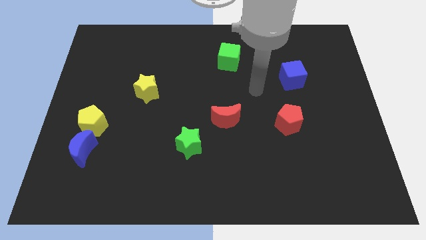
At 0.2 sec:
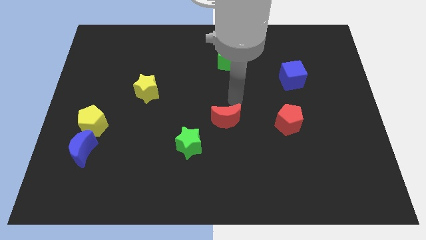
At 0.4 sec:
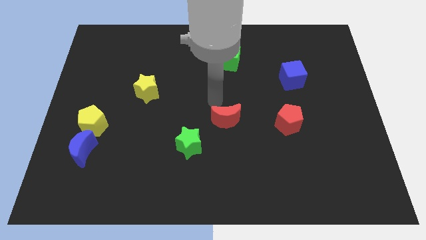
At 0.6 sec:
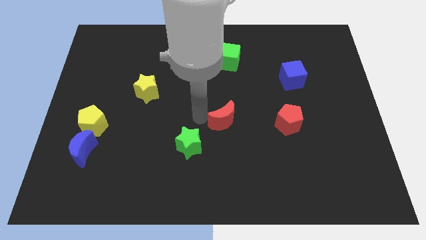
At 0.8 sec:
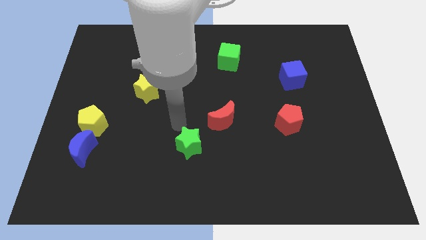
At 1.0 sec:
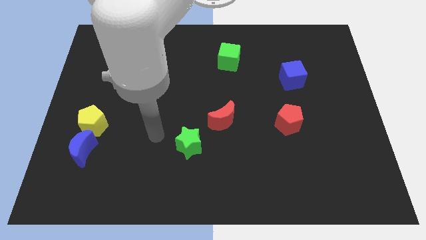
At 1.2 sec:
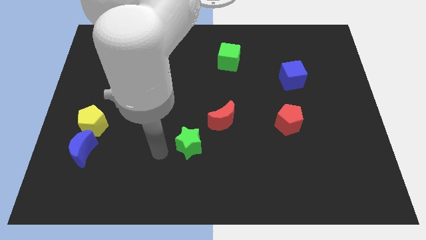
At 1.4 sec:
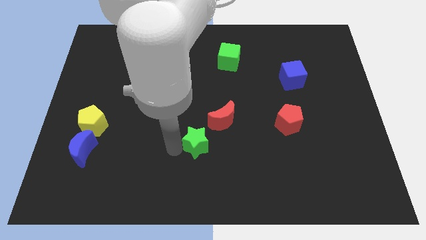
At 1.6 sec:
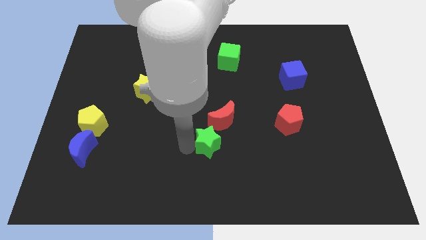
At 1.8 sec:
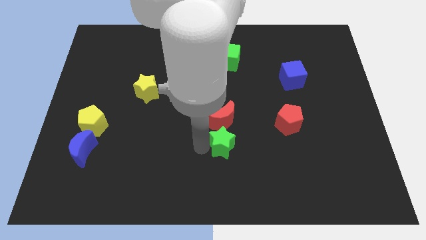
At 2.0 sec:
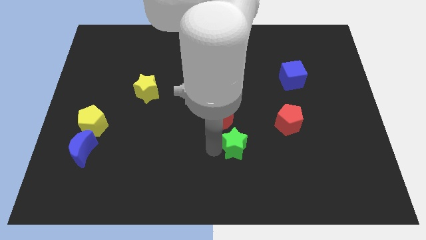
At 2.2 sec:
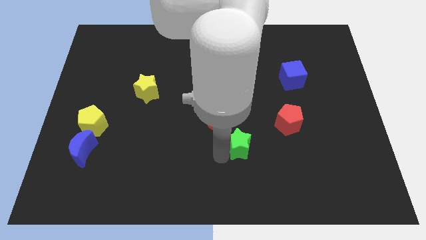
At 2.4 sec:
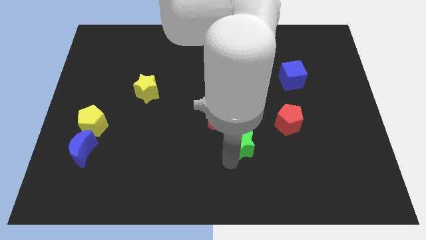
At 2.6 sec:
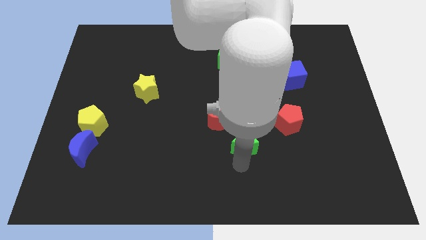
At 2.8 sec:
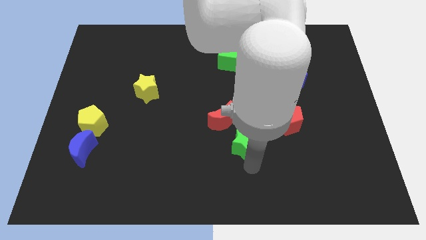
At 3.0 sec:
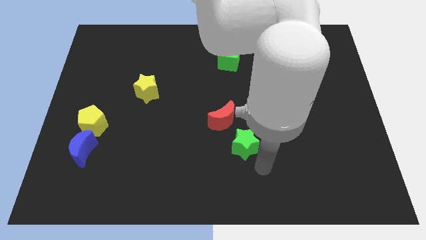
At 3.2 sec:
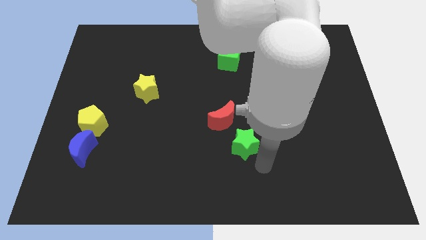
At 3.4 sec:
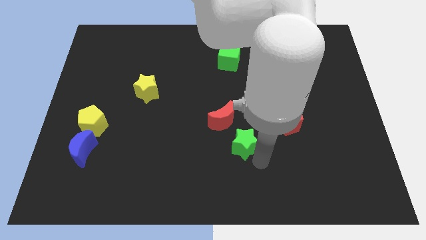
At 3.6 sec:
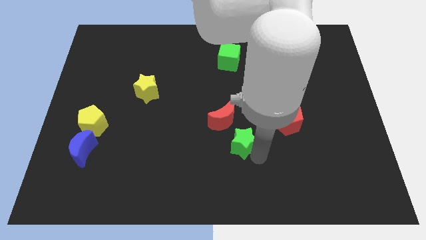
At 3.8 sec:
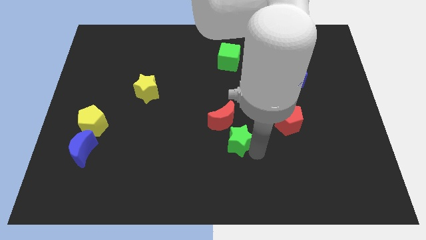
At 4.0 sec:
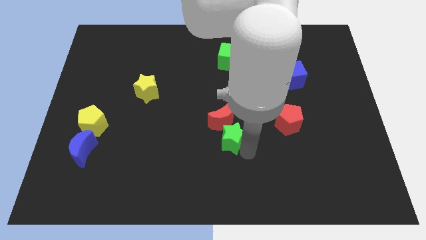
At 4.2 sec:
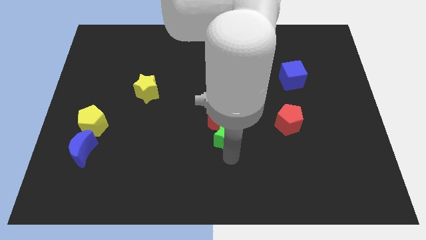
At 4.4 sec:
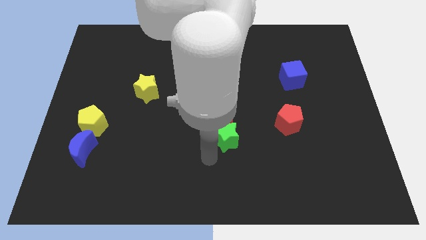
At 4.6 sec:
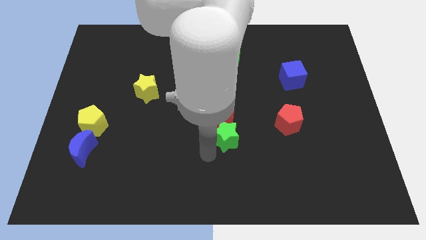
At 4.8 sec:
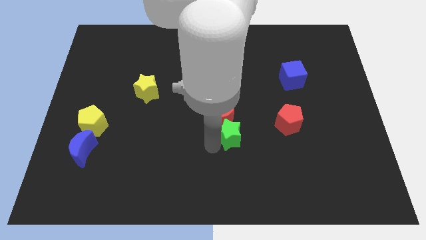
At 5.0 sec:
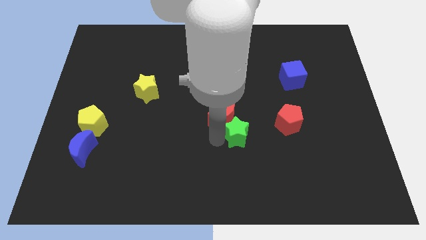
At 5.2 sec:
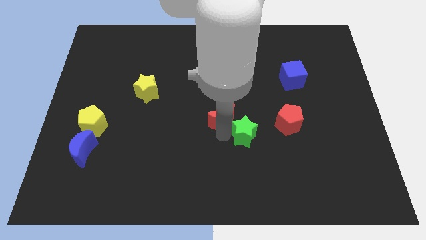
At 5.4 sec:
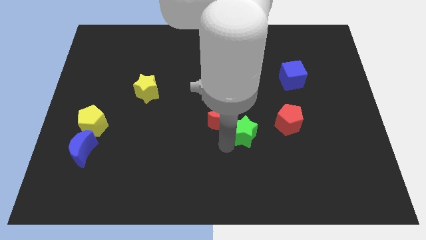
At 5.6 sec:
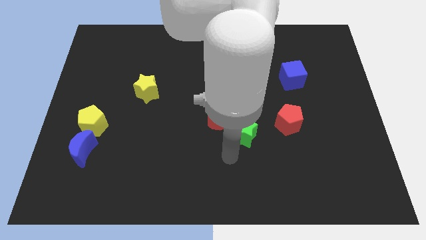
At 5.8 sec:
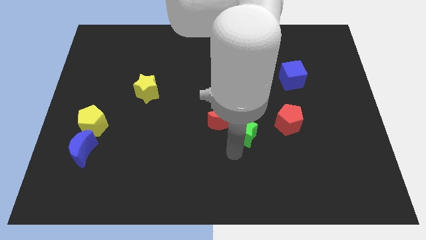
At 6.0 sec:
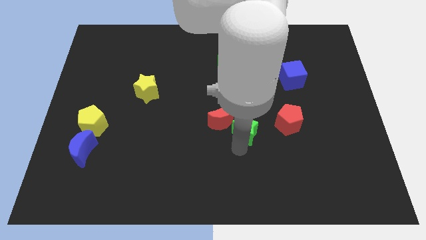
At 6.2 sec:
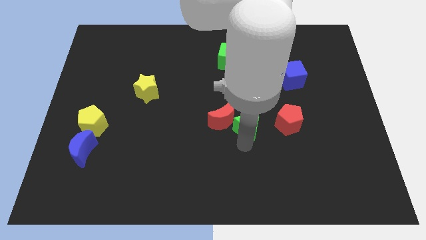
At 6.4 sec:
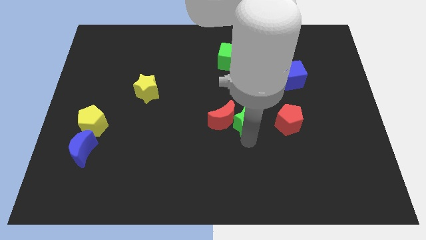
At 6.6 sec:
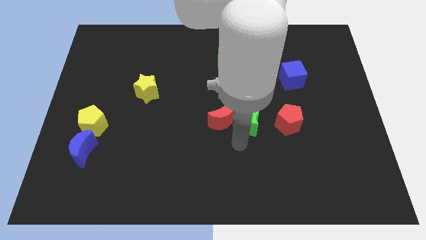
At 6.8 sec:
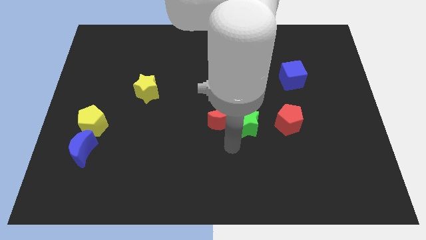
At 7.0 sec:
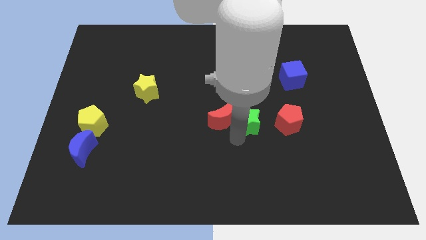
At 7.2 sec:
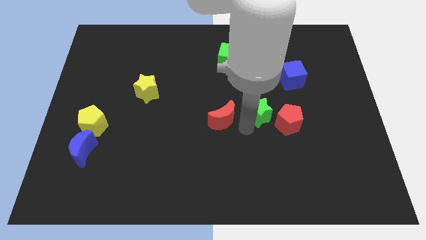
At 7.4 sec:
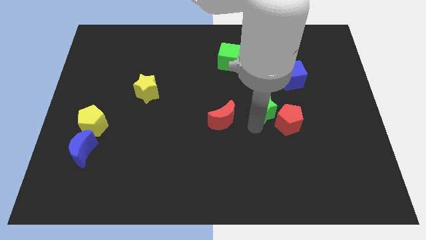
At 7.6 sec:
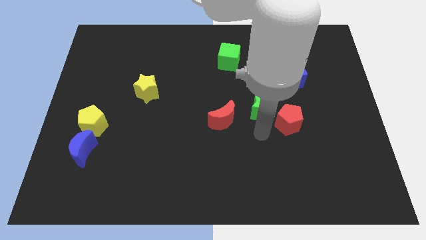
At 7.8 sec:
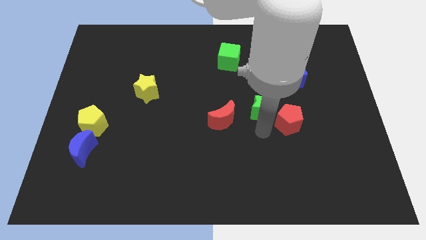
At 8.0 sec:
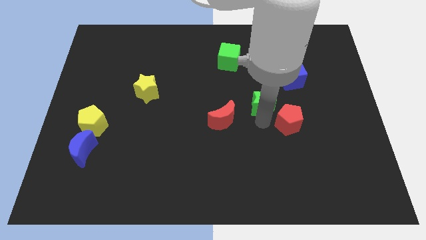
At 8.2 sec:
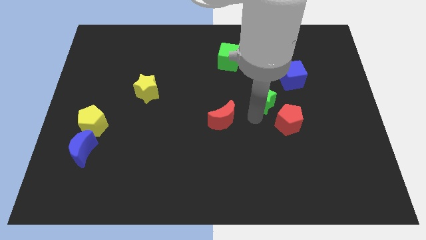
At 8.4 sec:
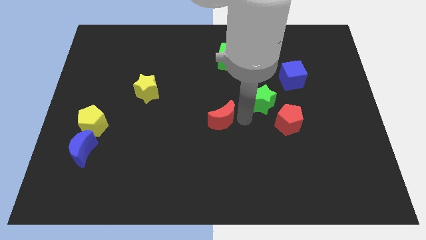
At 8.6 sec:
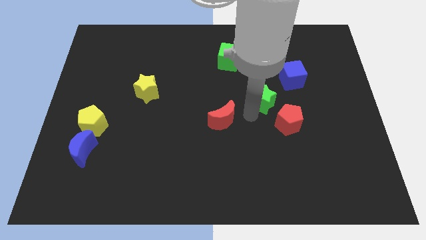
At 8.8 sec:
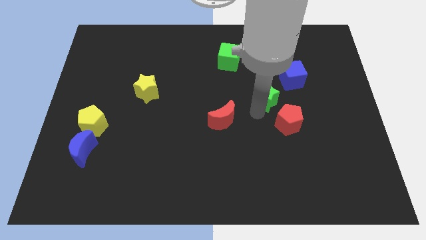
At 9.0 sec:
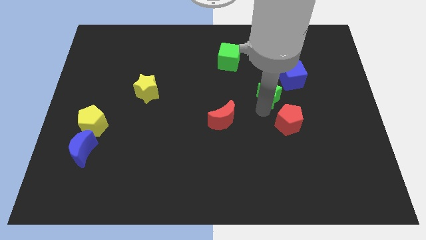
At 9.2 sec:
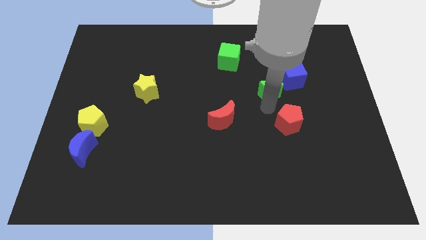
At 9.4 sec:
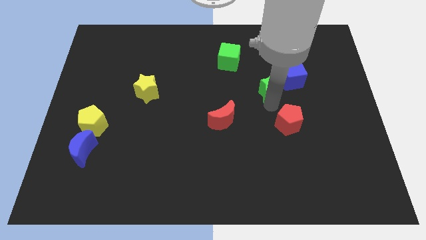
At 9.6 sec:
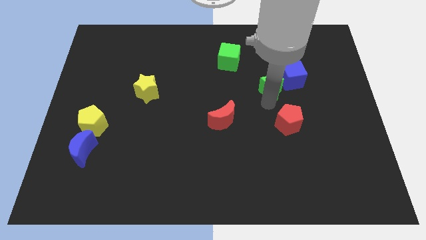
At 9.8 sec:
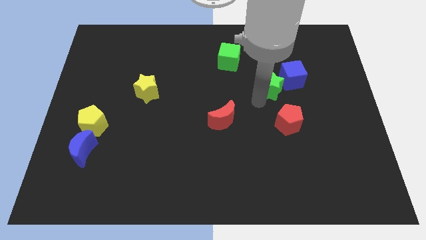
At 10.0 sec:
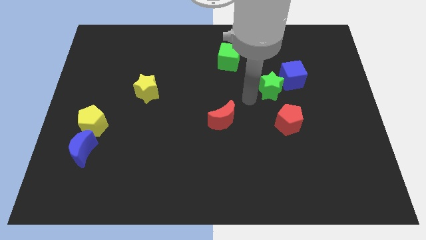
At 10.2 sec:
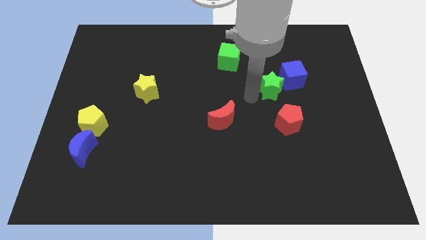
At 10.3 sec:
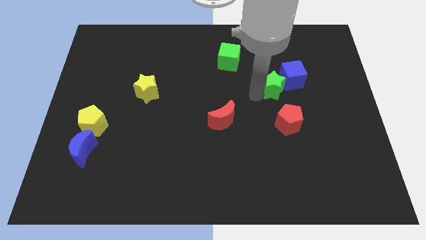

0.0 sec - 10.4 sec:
push the green star towards the blue cube

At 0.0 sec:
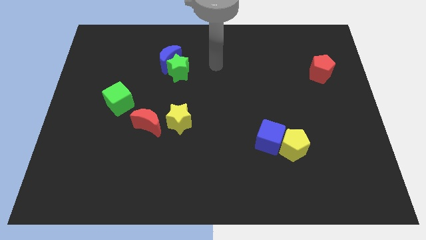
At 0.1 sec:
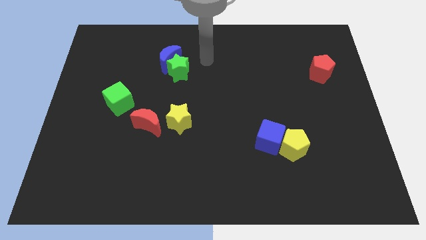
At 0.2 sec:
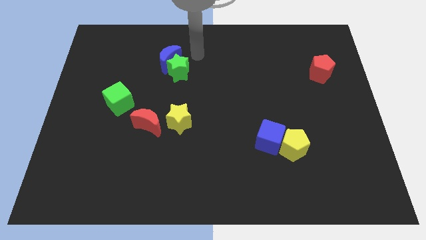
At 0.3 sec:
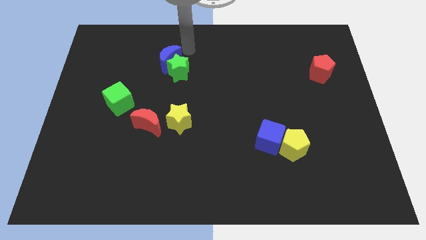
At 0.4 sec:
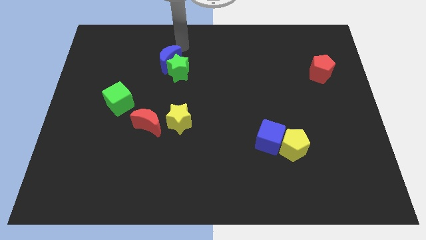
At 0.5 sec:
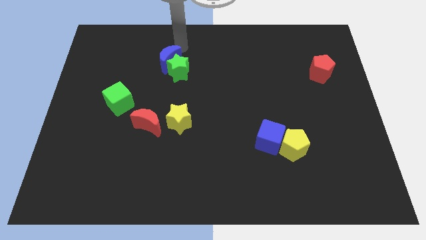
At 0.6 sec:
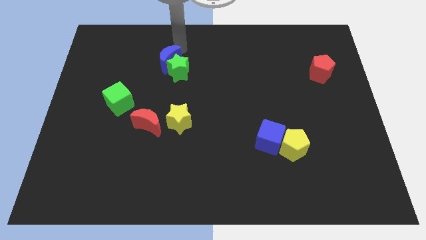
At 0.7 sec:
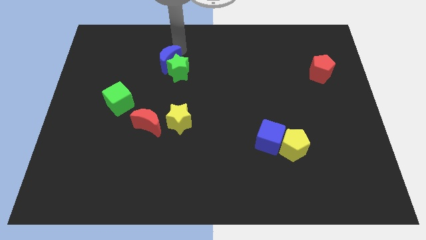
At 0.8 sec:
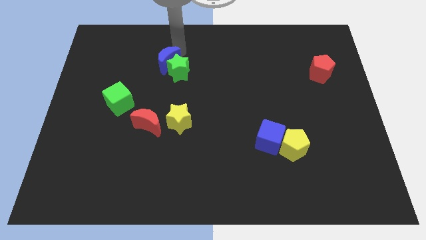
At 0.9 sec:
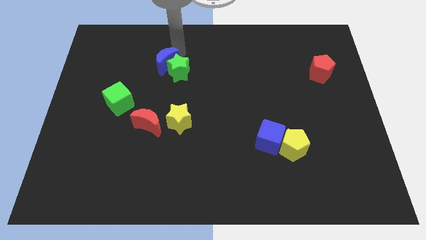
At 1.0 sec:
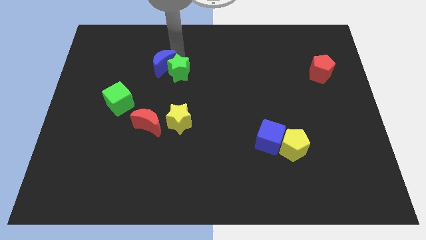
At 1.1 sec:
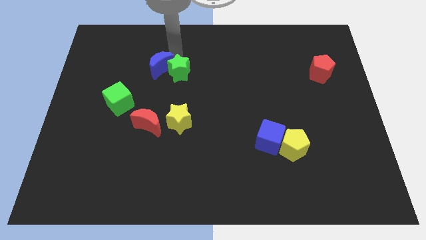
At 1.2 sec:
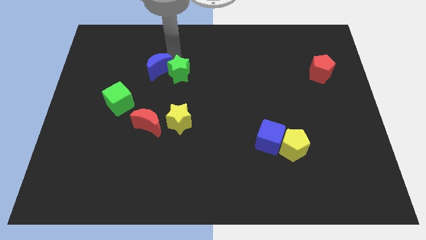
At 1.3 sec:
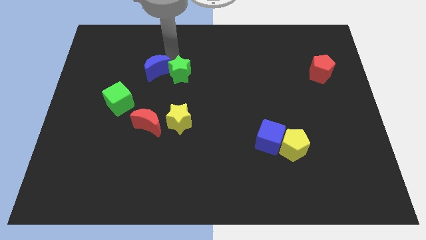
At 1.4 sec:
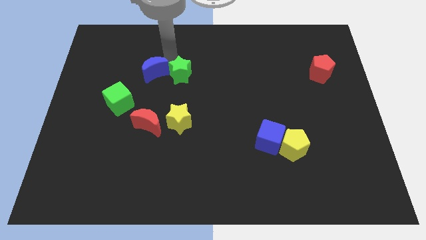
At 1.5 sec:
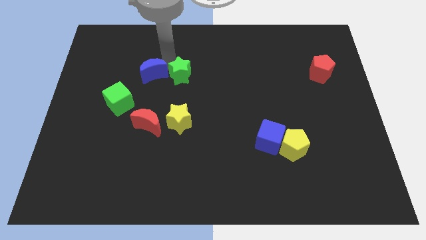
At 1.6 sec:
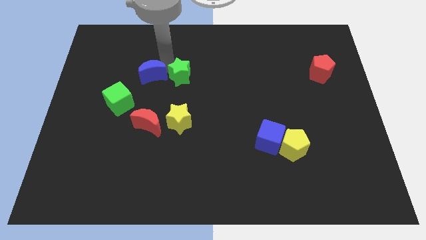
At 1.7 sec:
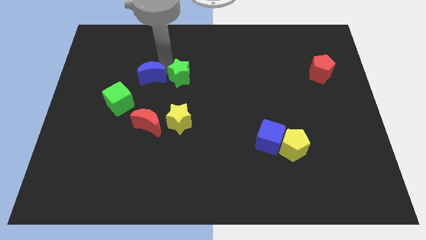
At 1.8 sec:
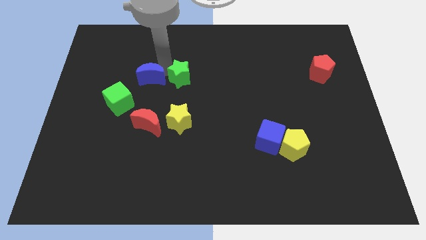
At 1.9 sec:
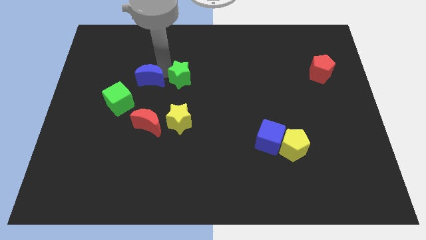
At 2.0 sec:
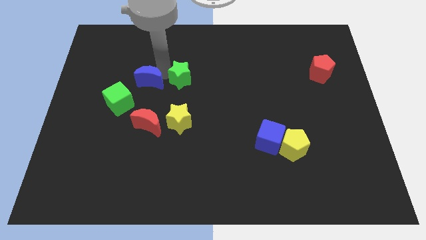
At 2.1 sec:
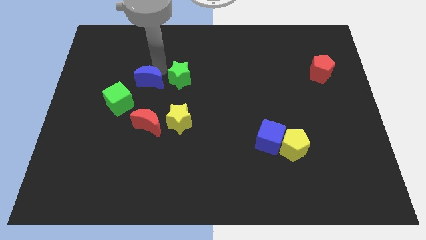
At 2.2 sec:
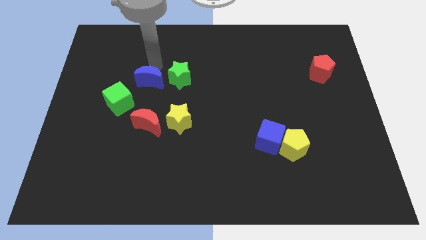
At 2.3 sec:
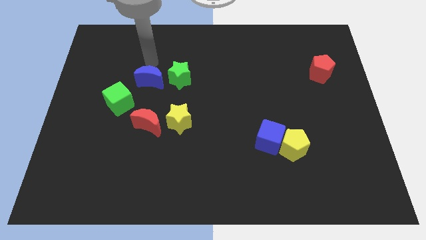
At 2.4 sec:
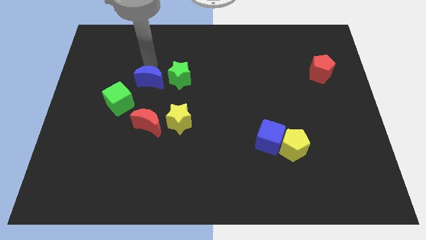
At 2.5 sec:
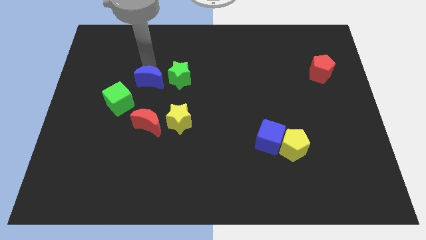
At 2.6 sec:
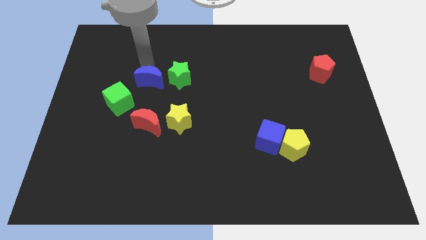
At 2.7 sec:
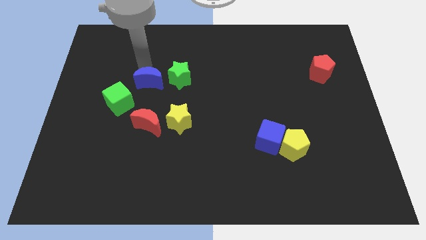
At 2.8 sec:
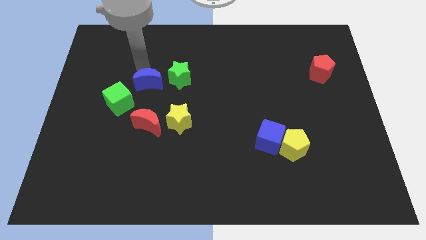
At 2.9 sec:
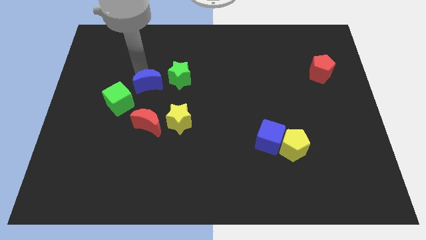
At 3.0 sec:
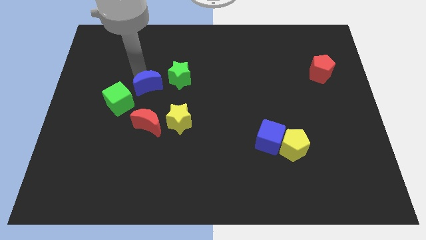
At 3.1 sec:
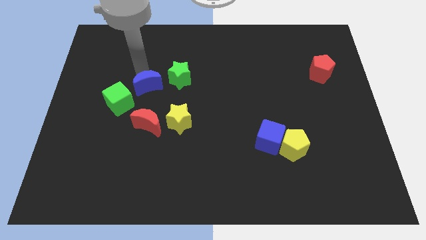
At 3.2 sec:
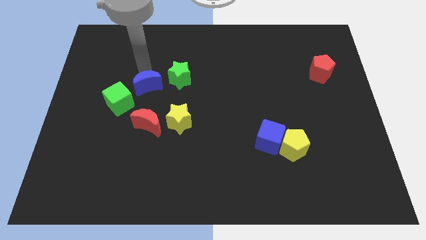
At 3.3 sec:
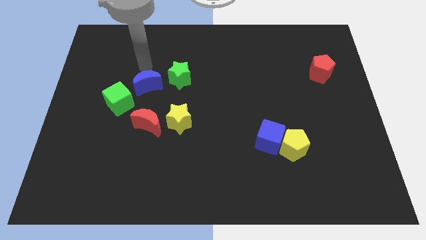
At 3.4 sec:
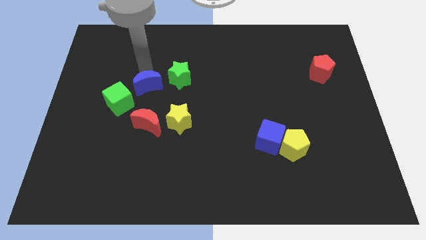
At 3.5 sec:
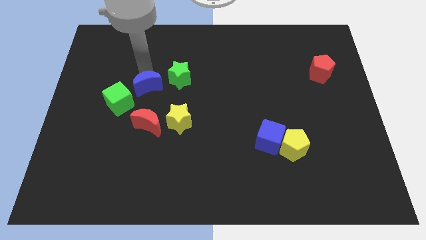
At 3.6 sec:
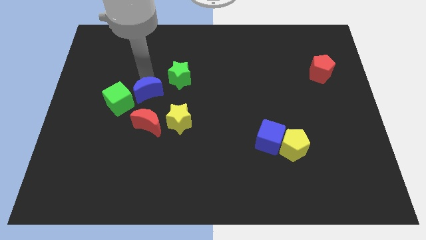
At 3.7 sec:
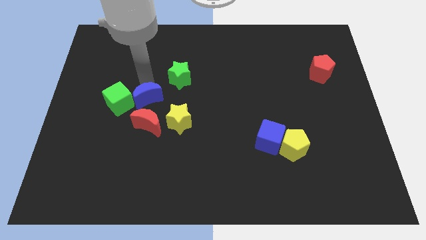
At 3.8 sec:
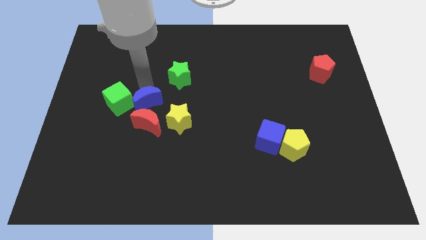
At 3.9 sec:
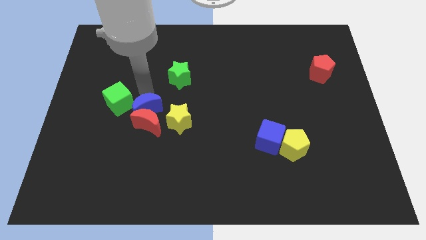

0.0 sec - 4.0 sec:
move the blue moon to the red moon
